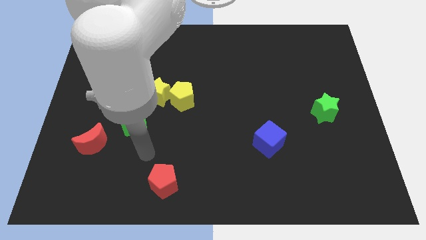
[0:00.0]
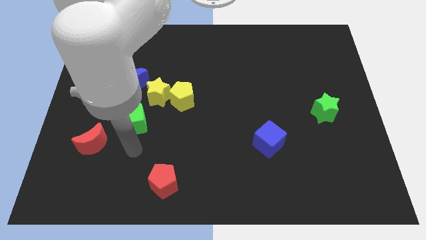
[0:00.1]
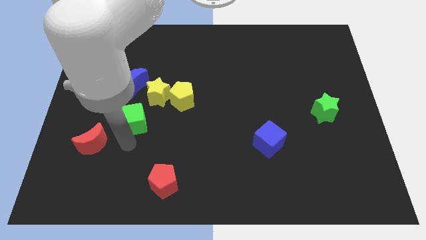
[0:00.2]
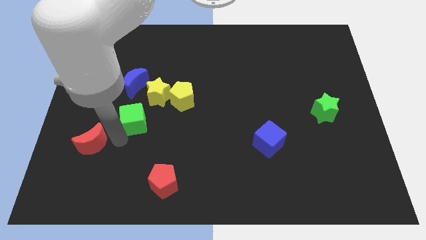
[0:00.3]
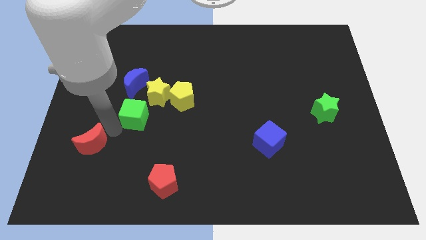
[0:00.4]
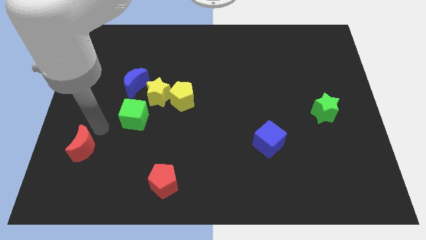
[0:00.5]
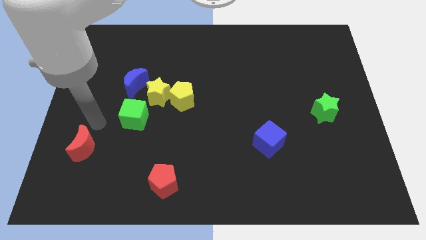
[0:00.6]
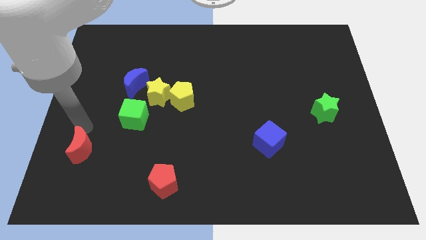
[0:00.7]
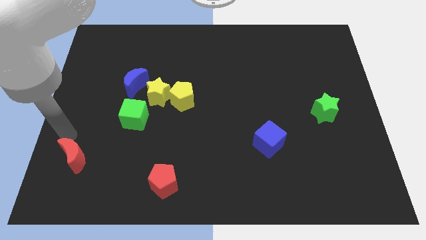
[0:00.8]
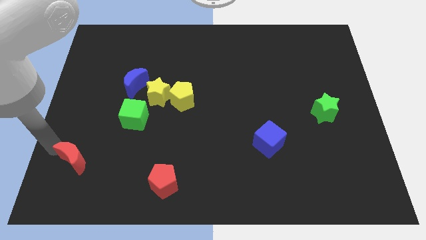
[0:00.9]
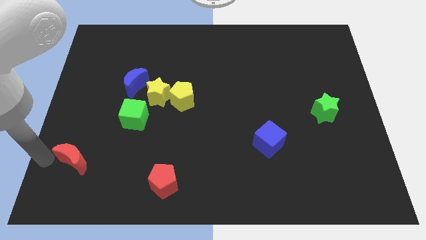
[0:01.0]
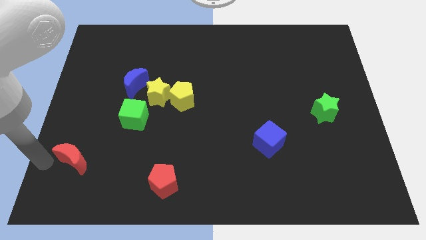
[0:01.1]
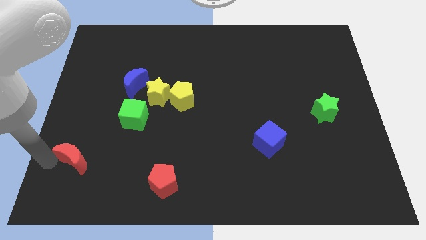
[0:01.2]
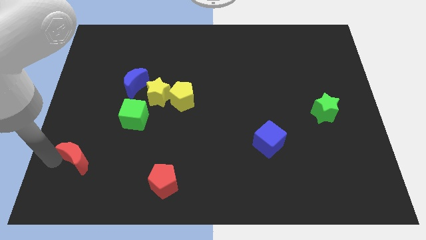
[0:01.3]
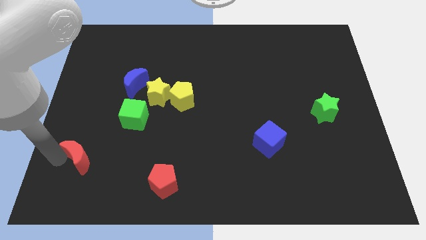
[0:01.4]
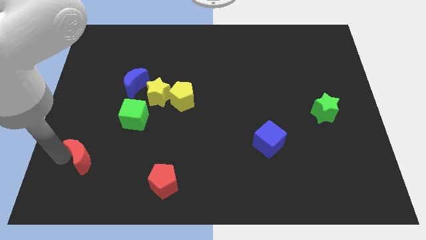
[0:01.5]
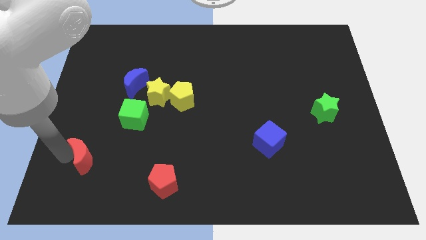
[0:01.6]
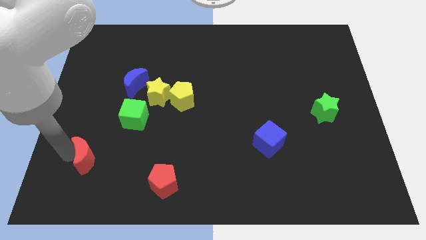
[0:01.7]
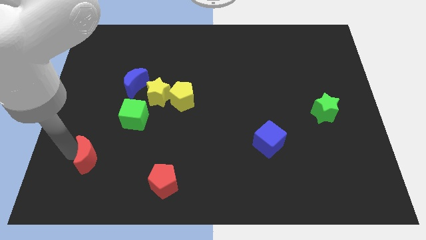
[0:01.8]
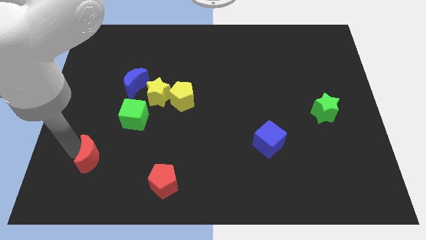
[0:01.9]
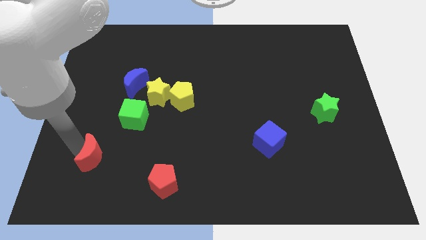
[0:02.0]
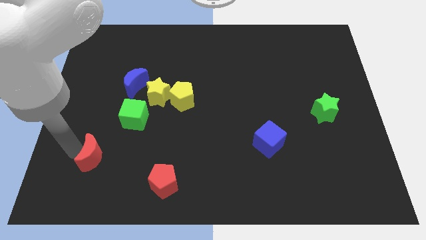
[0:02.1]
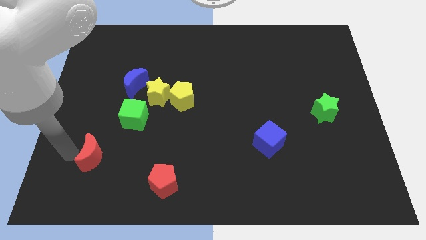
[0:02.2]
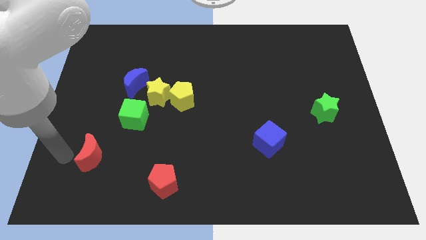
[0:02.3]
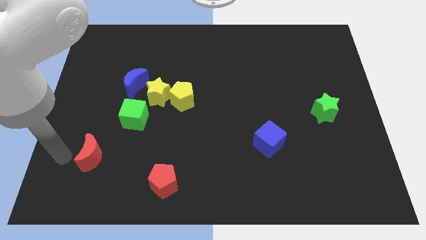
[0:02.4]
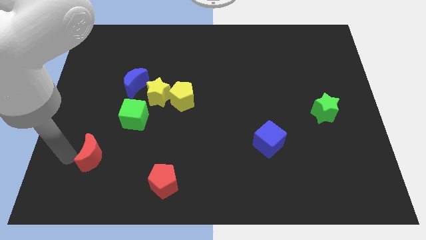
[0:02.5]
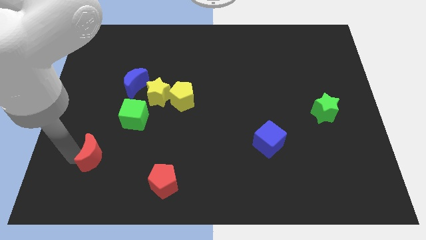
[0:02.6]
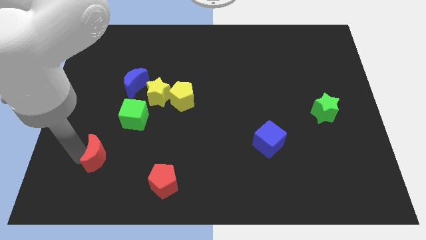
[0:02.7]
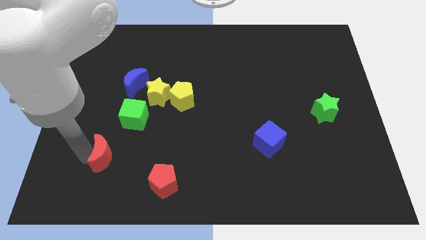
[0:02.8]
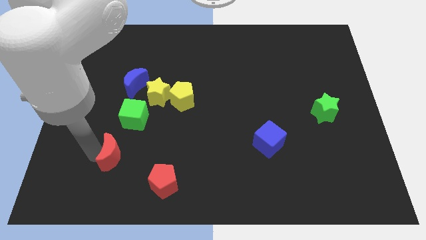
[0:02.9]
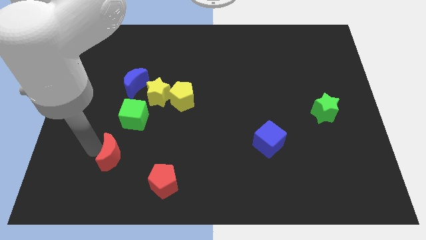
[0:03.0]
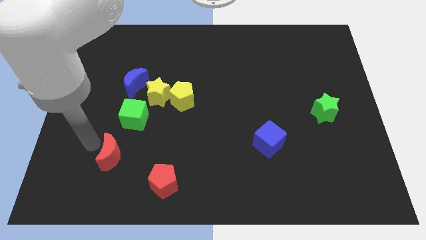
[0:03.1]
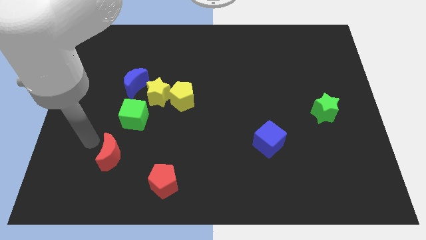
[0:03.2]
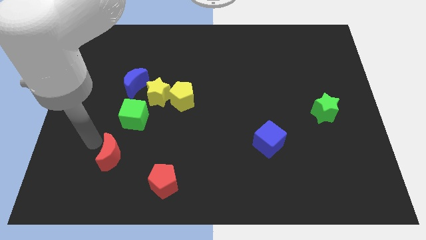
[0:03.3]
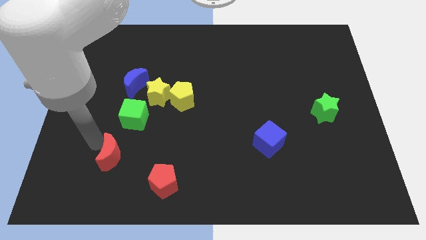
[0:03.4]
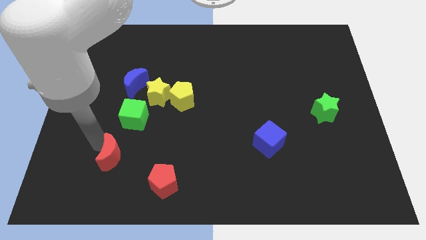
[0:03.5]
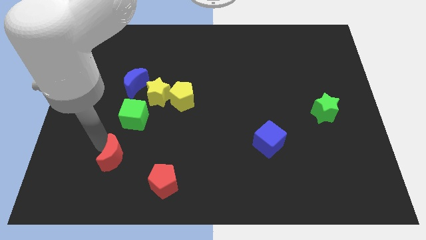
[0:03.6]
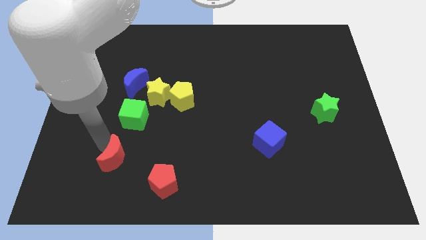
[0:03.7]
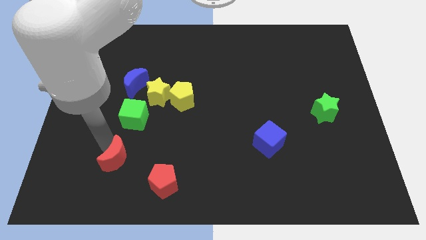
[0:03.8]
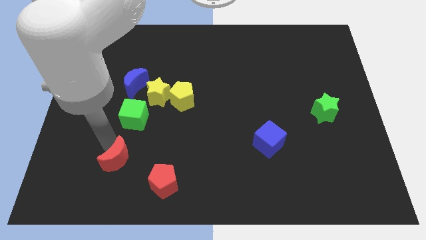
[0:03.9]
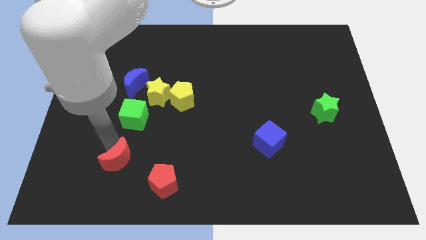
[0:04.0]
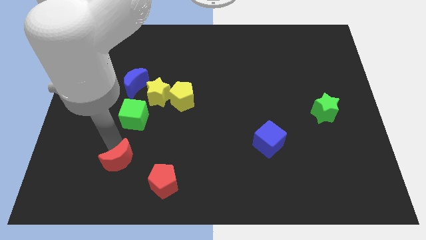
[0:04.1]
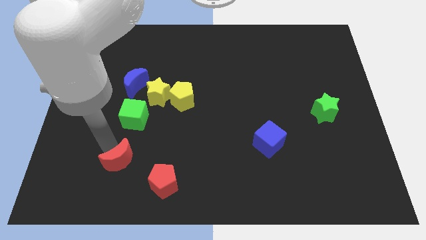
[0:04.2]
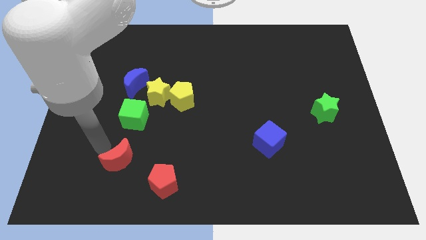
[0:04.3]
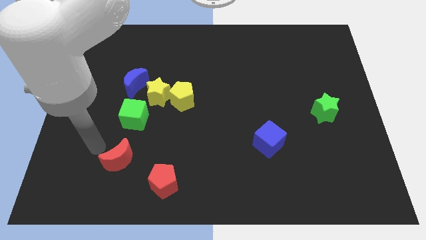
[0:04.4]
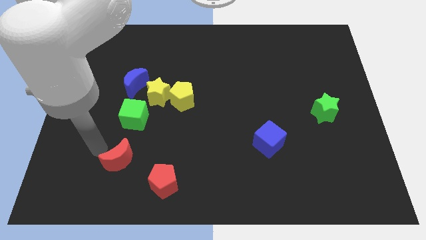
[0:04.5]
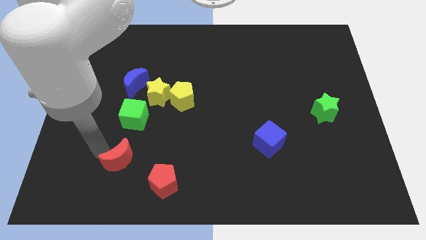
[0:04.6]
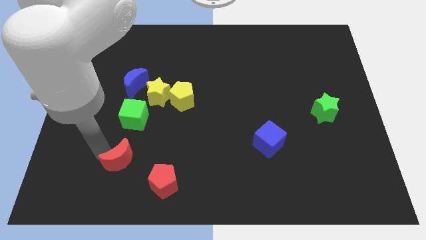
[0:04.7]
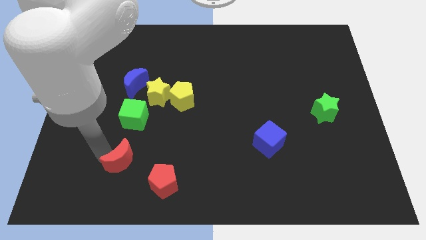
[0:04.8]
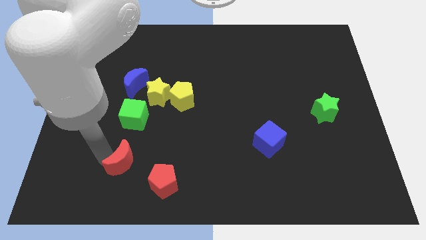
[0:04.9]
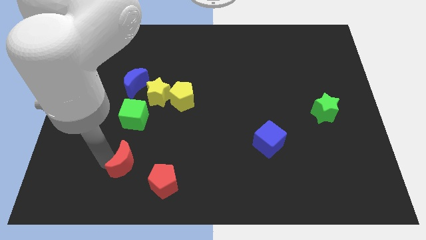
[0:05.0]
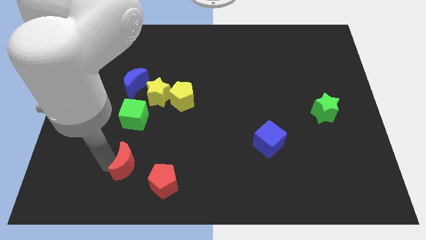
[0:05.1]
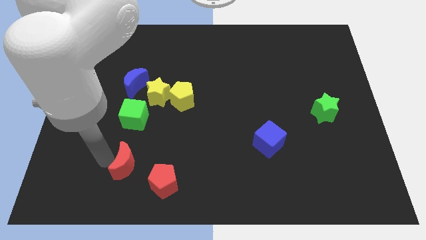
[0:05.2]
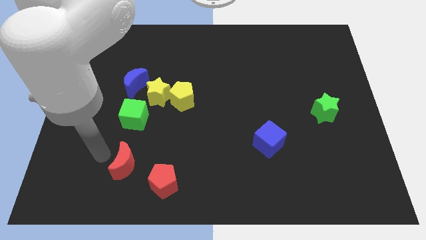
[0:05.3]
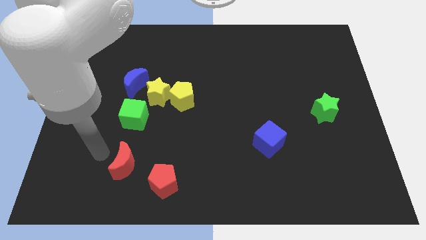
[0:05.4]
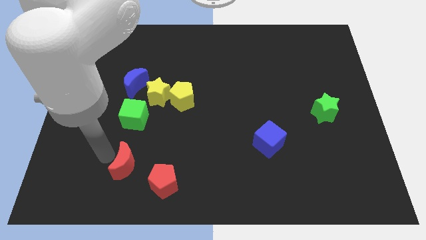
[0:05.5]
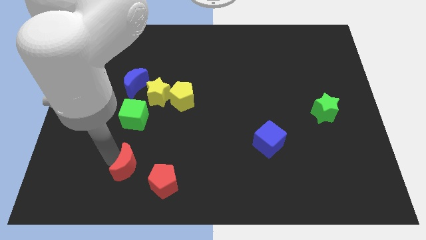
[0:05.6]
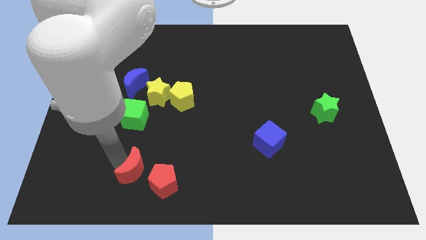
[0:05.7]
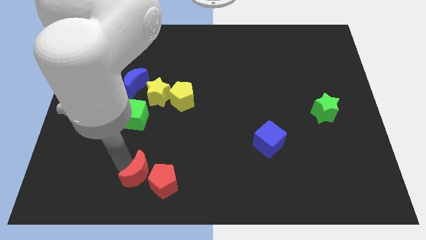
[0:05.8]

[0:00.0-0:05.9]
slide the red moon close to the red pentagon

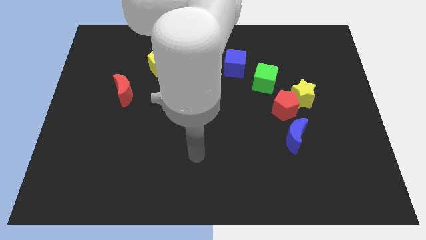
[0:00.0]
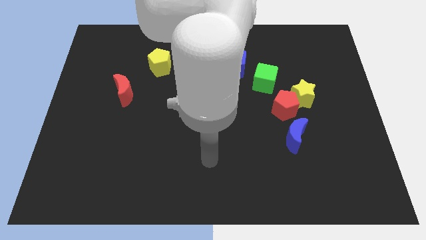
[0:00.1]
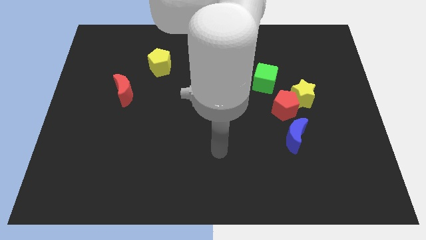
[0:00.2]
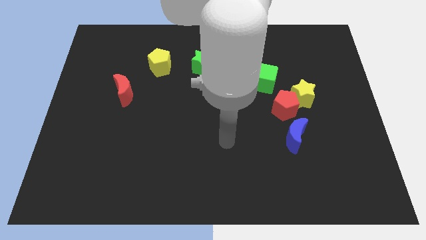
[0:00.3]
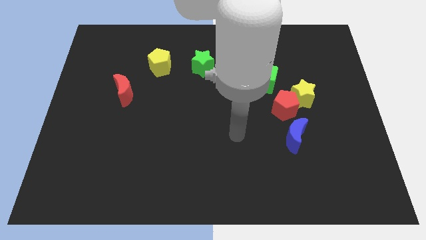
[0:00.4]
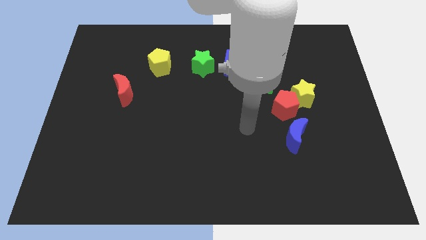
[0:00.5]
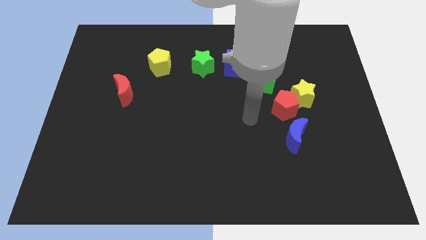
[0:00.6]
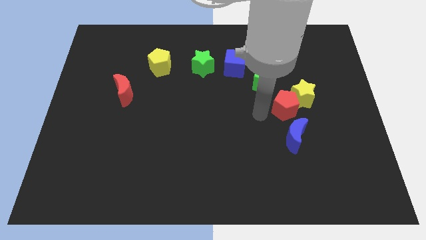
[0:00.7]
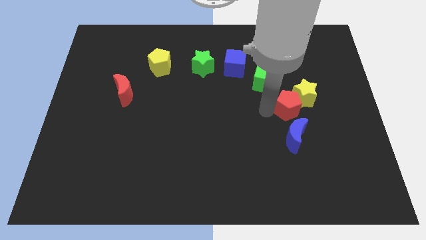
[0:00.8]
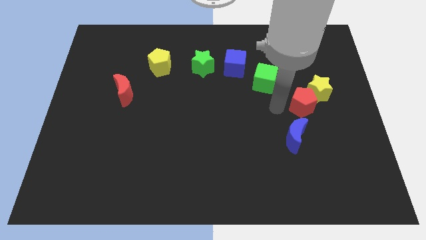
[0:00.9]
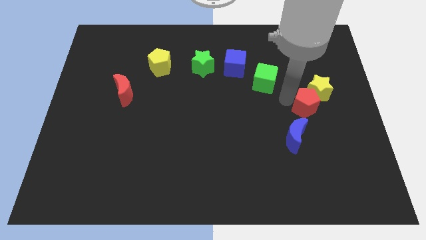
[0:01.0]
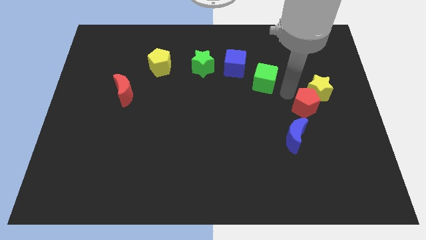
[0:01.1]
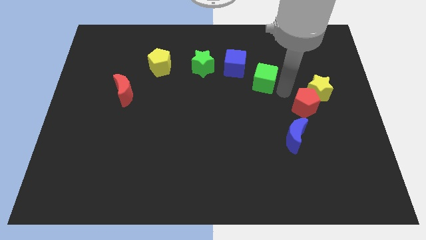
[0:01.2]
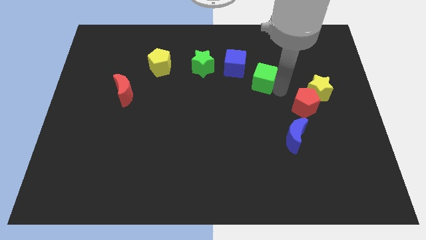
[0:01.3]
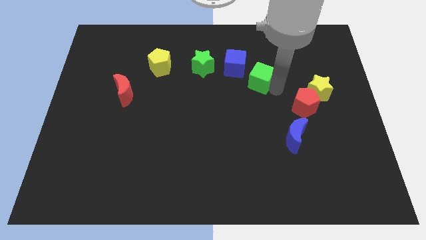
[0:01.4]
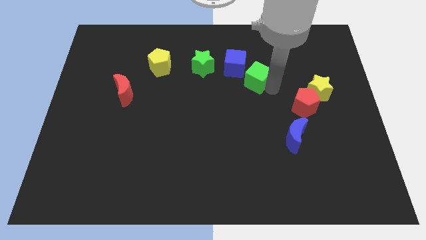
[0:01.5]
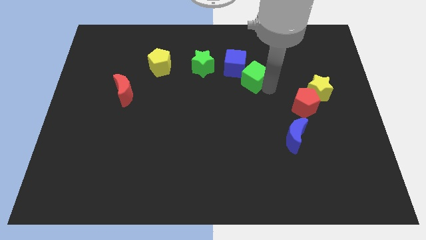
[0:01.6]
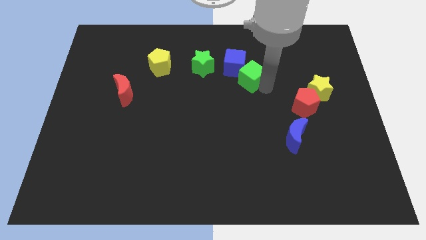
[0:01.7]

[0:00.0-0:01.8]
put the green cube towards the blue cube
